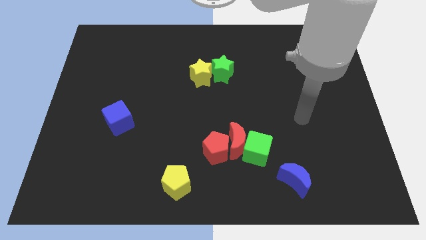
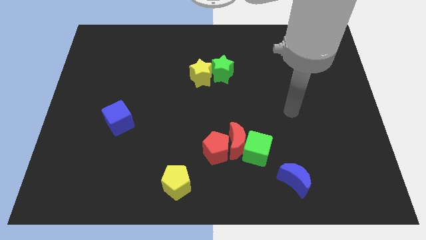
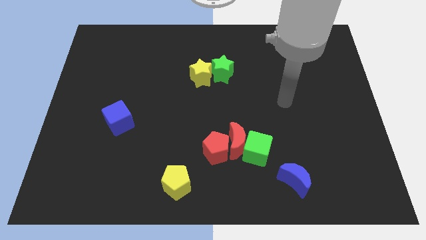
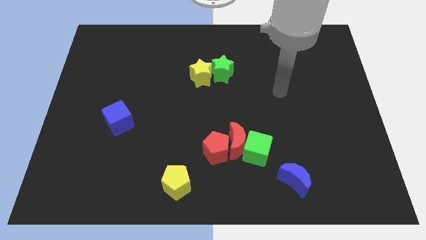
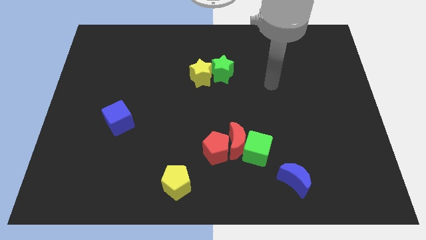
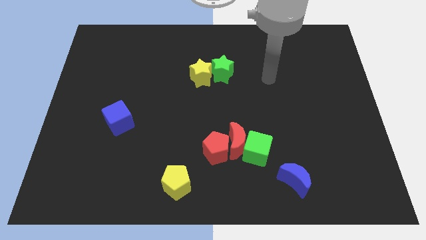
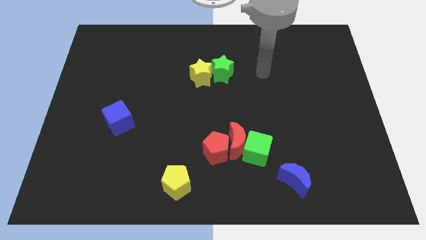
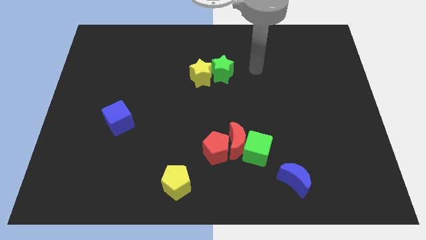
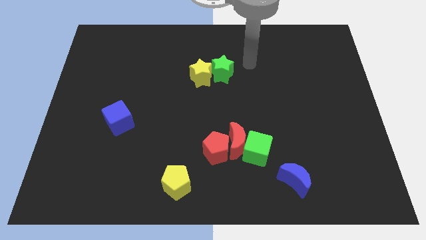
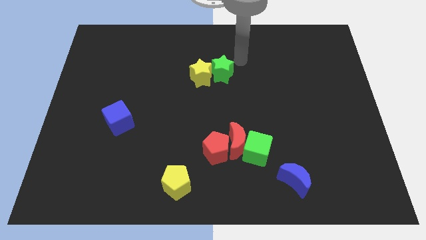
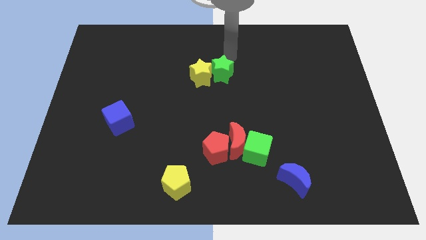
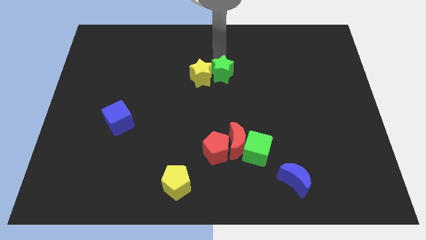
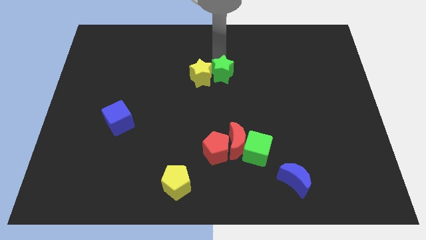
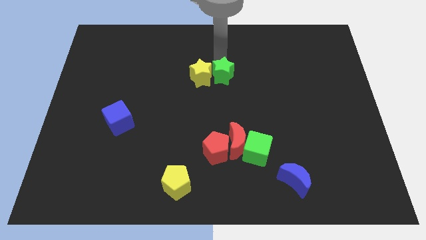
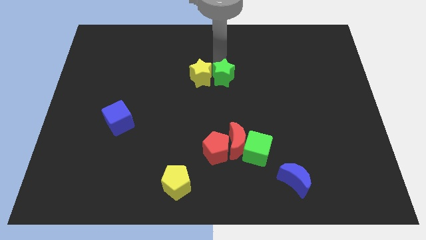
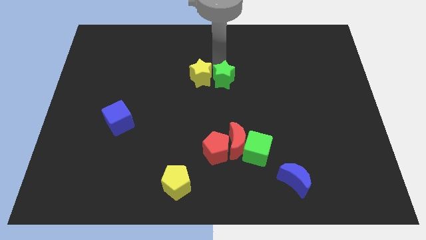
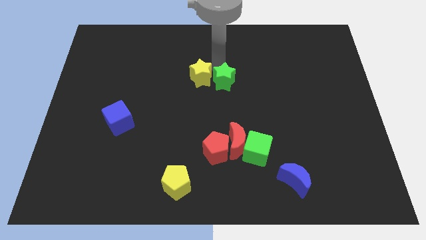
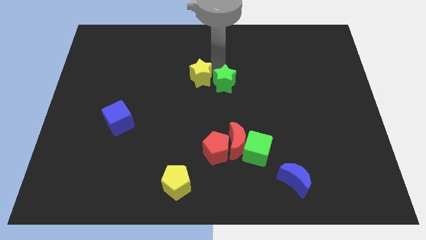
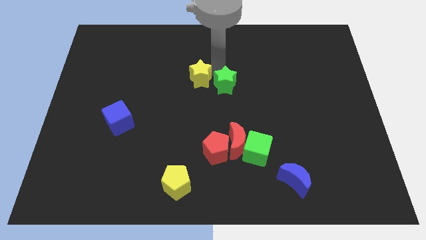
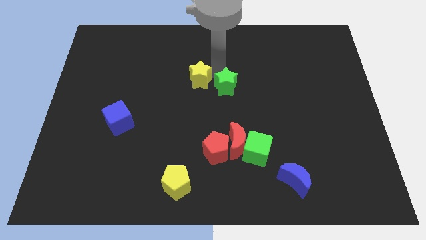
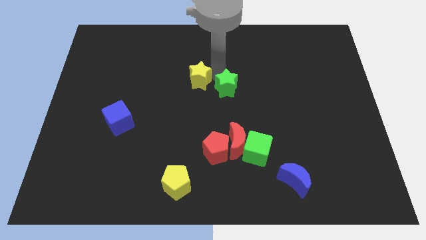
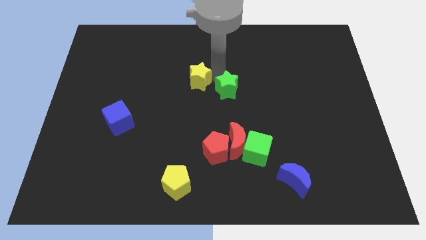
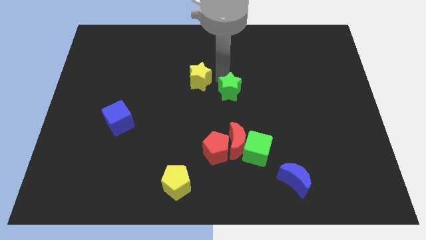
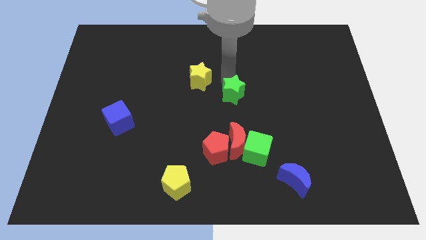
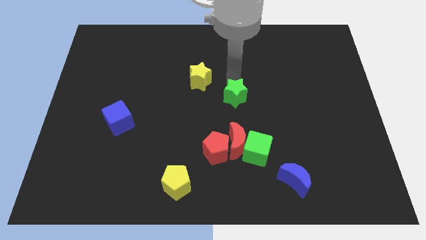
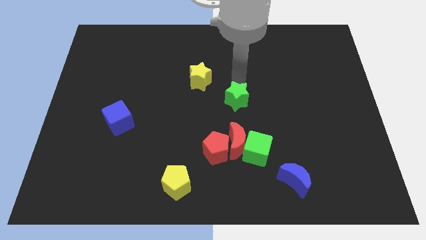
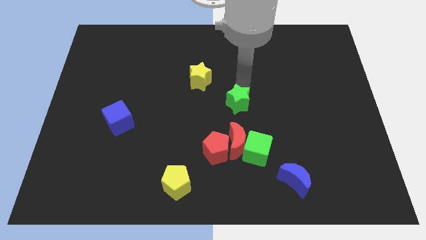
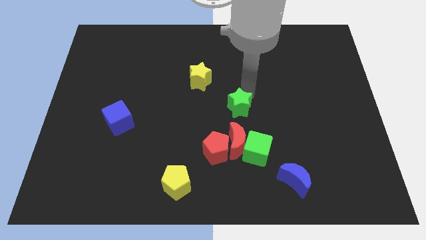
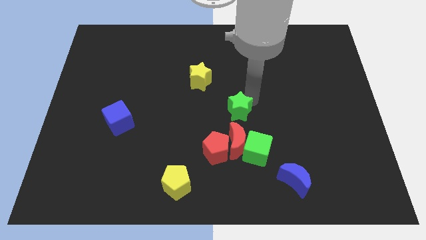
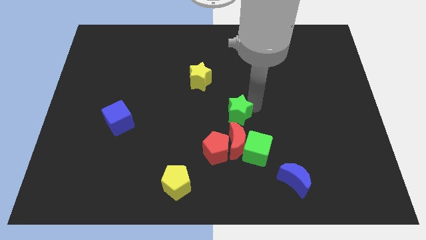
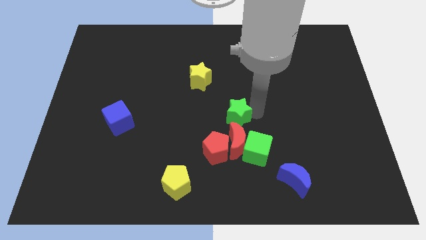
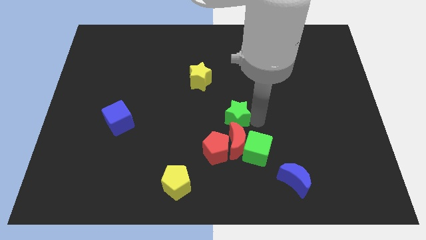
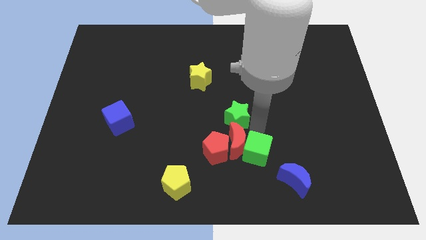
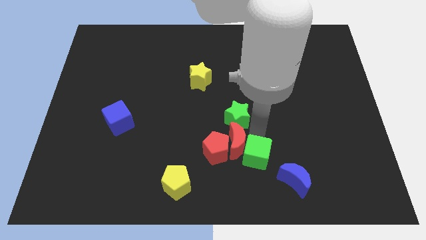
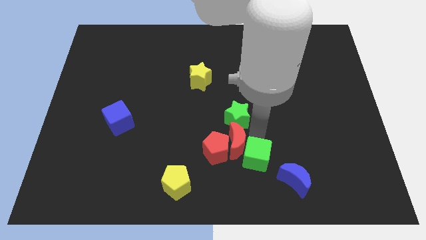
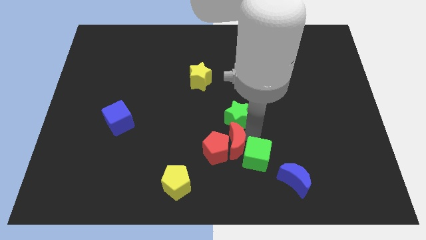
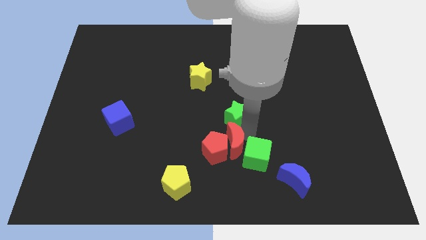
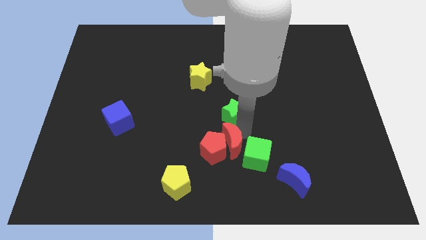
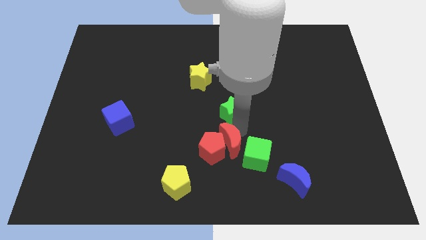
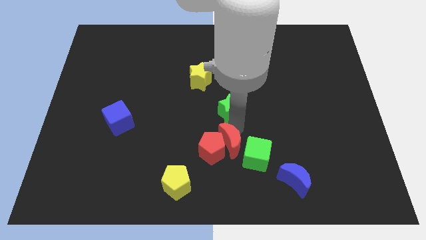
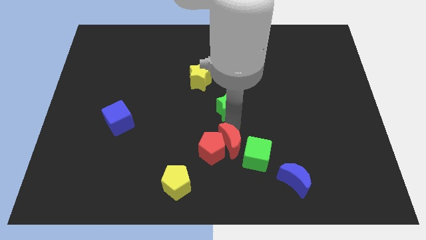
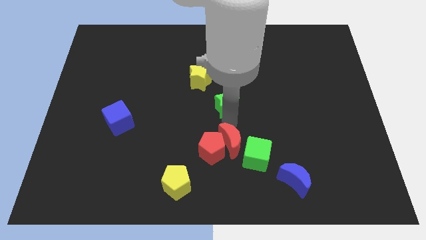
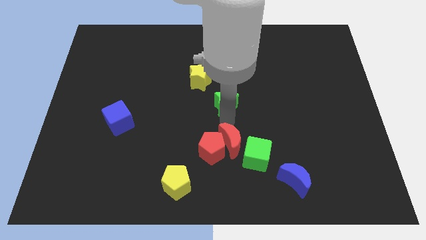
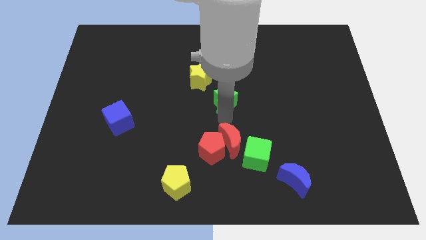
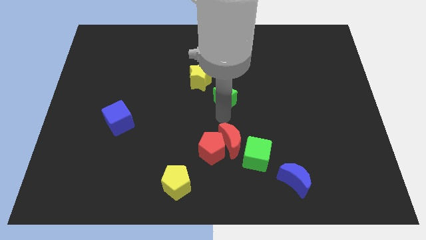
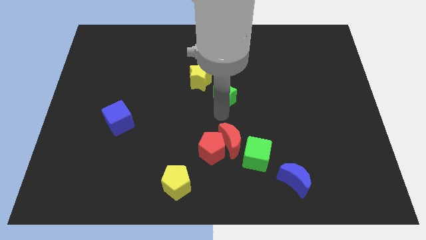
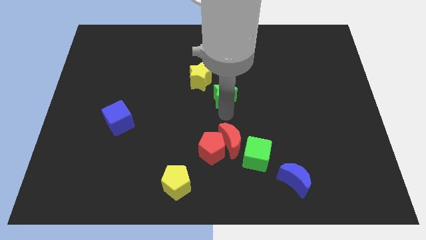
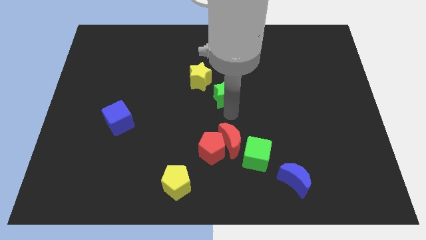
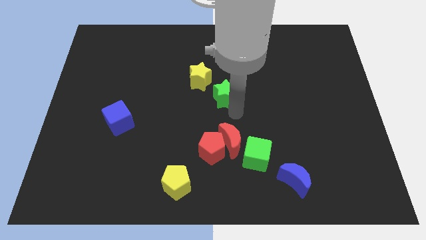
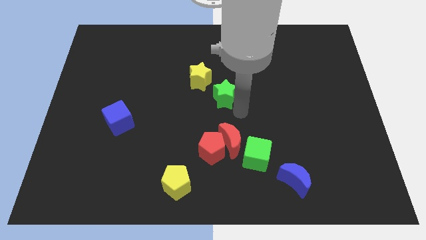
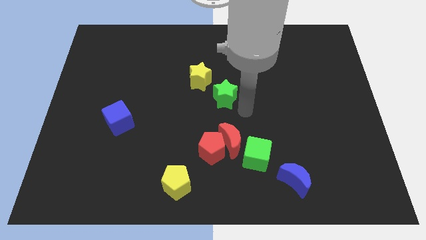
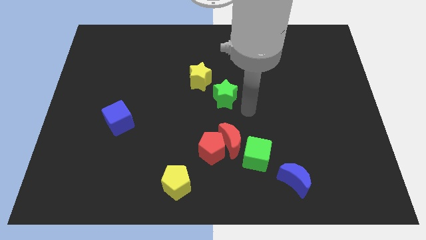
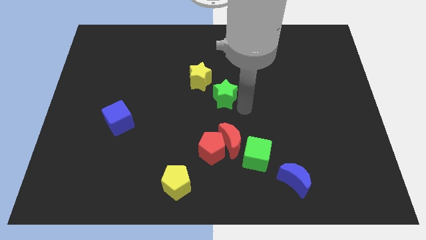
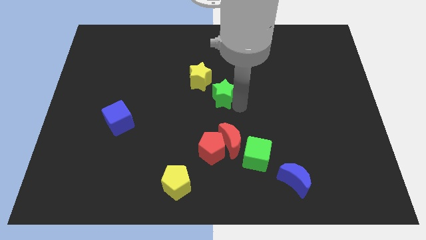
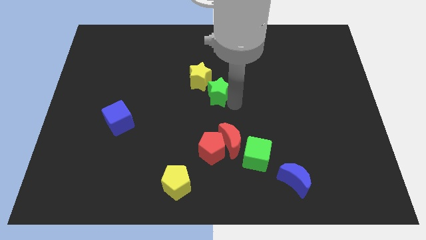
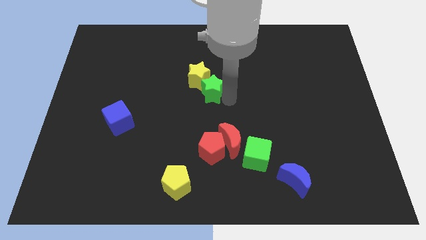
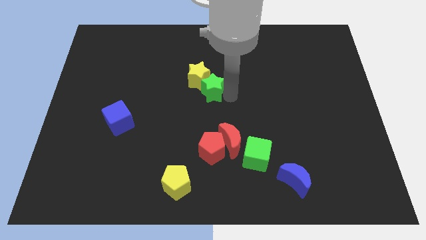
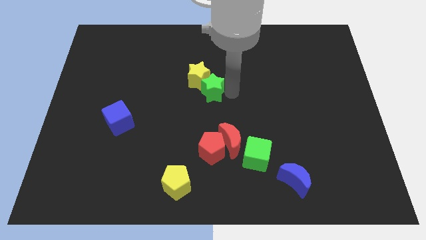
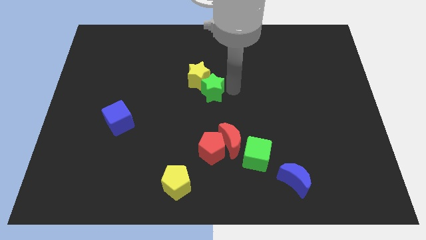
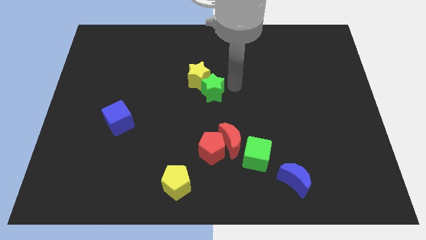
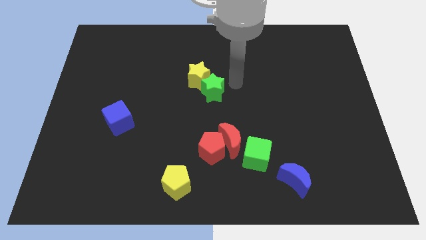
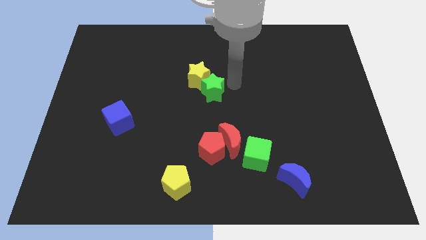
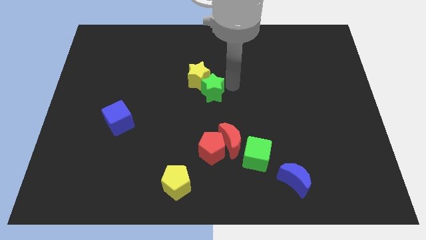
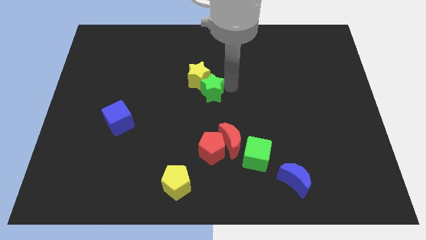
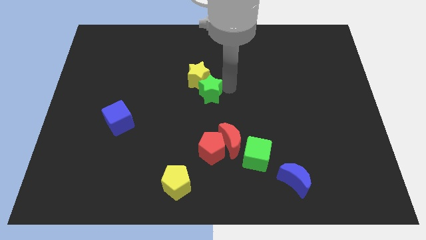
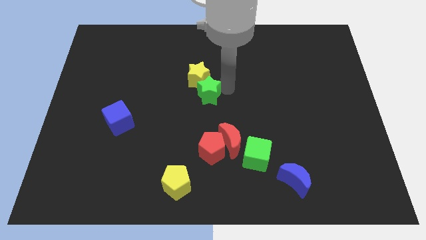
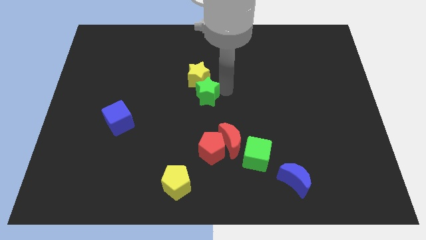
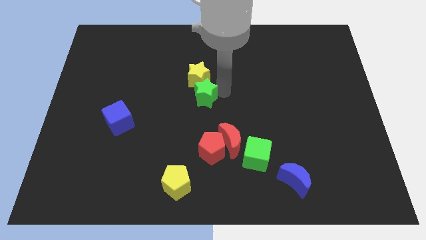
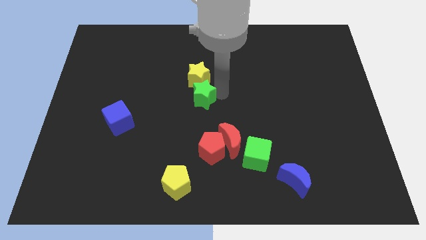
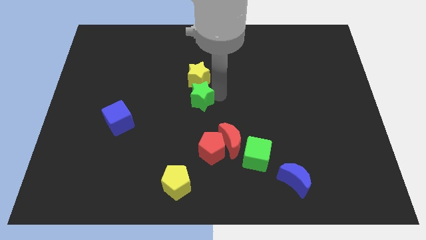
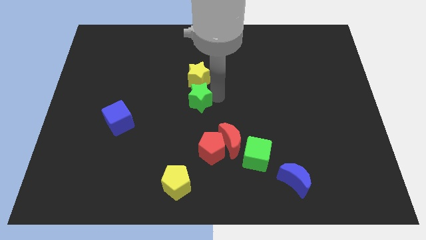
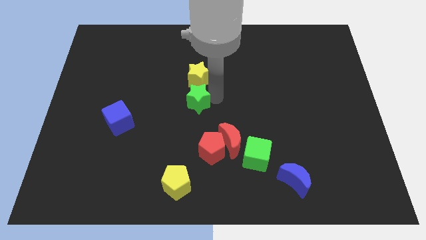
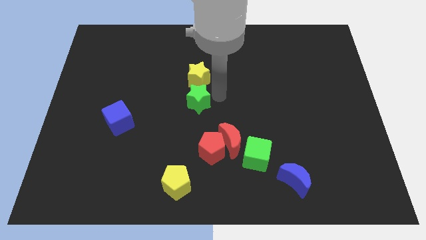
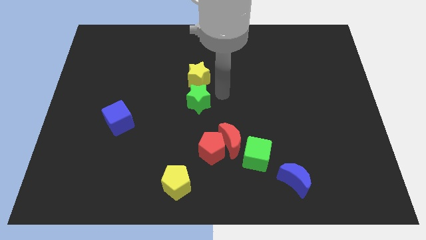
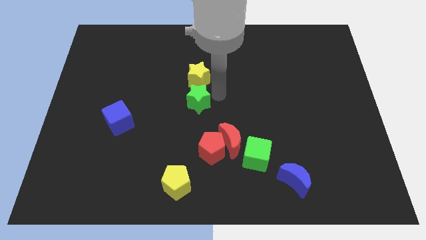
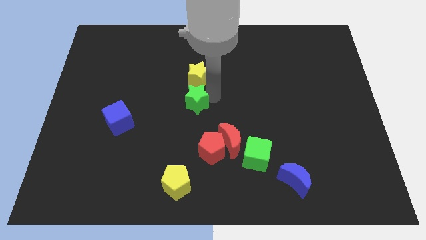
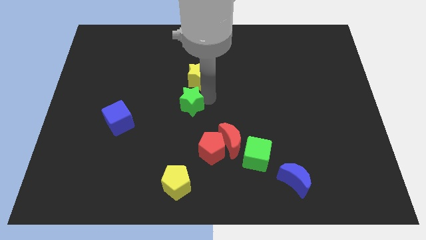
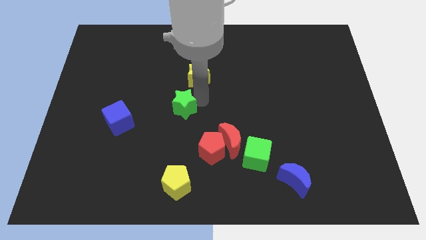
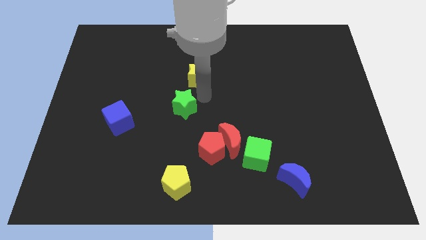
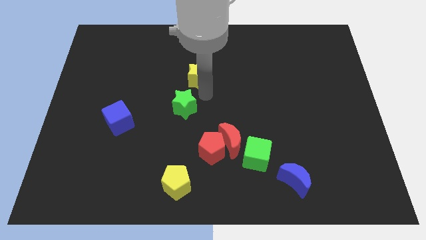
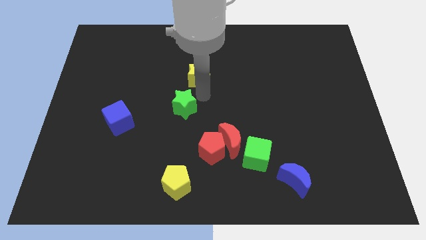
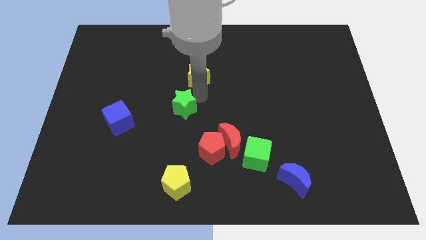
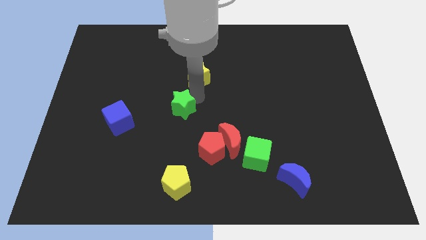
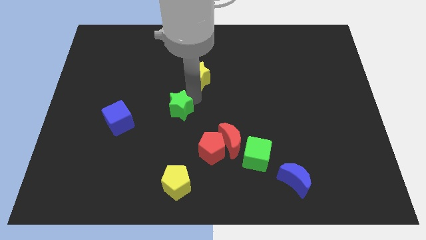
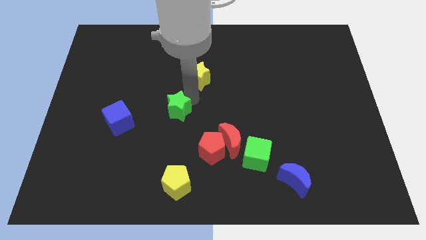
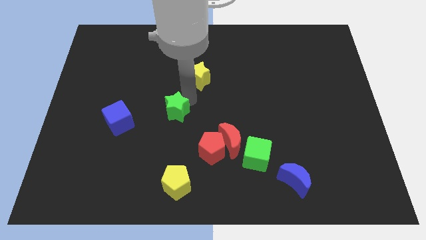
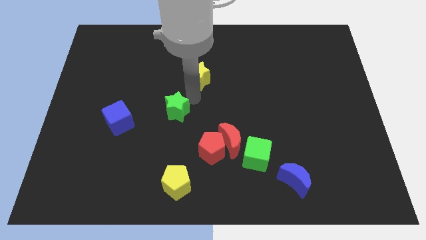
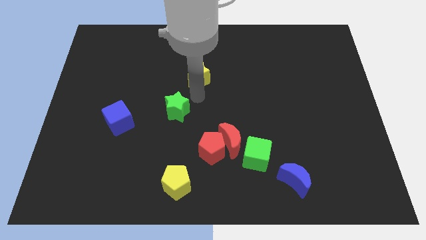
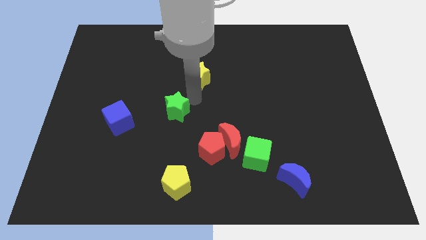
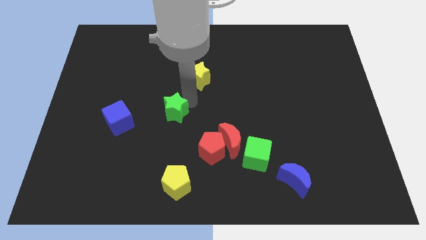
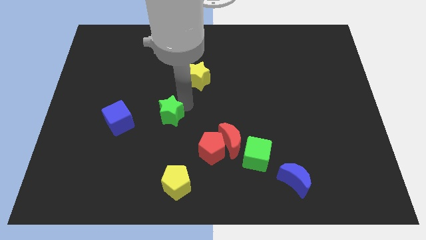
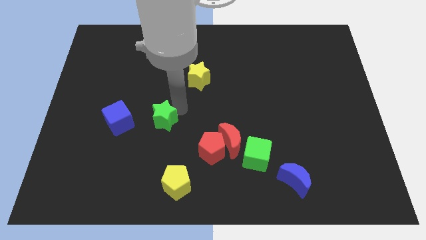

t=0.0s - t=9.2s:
slide the green star down and then left
